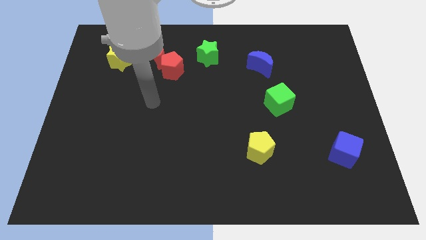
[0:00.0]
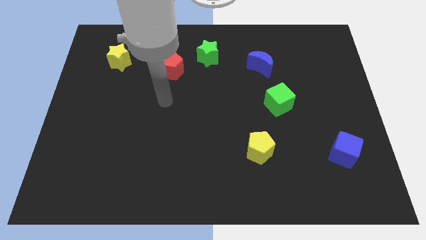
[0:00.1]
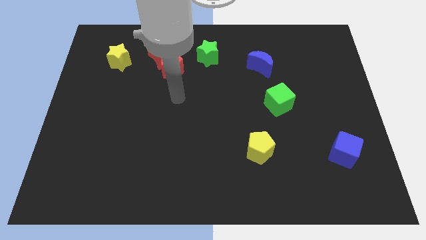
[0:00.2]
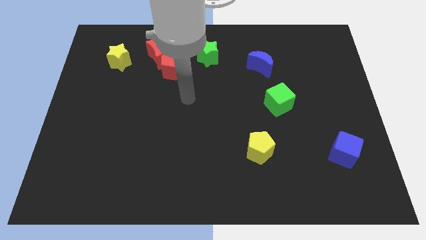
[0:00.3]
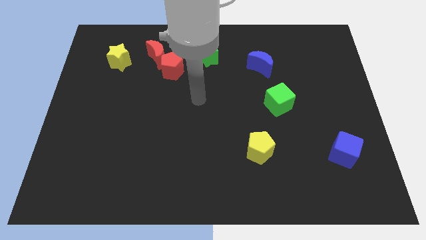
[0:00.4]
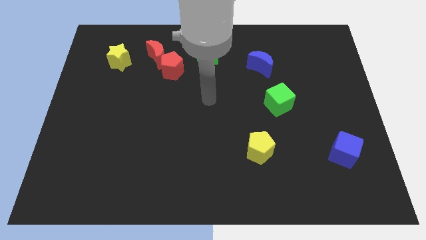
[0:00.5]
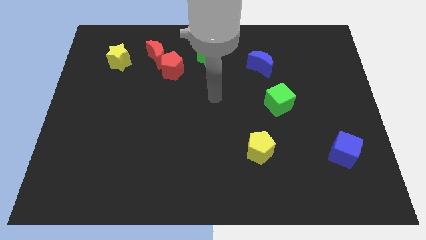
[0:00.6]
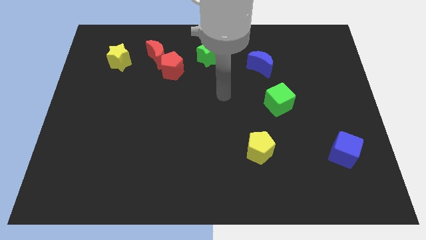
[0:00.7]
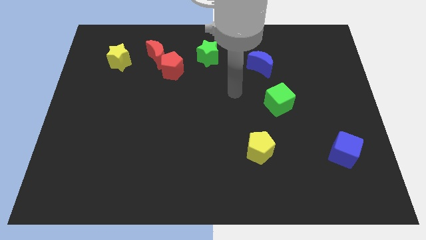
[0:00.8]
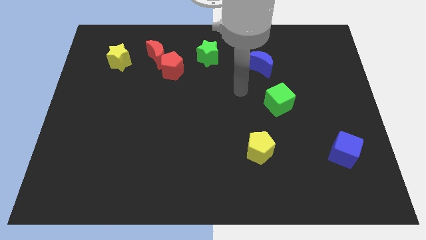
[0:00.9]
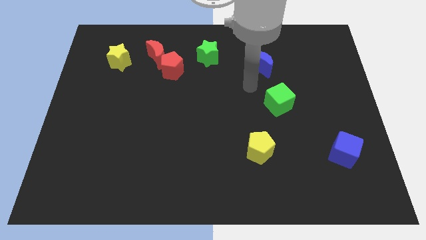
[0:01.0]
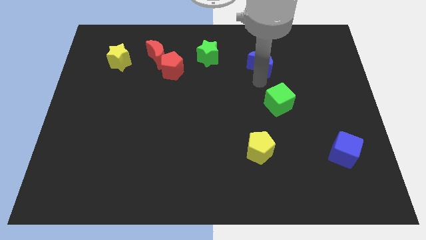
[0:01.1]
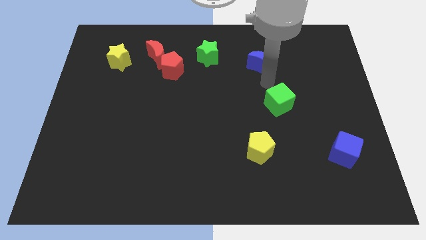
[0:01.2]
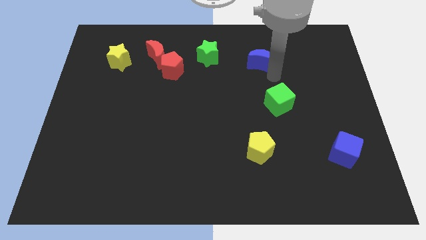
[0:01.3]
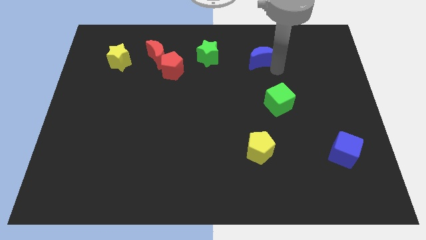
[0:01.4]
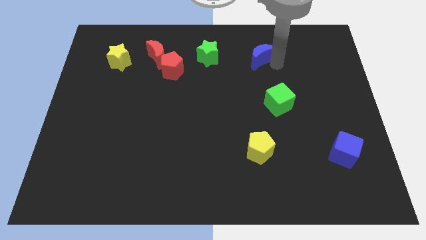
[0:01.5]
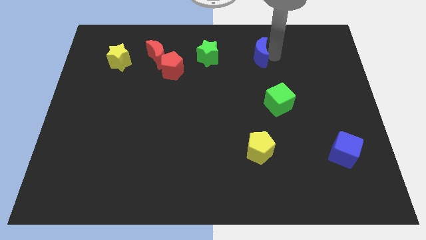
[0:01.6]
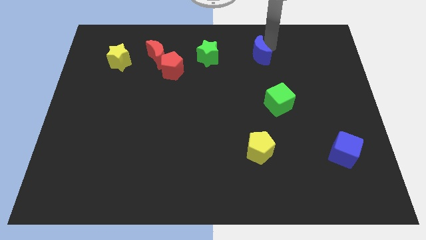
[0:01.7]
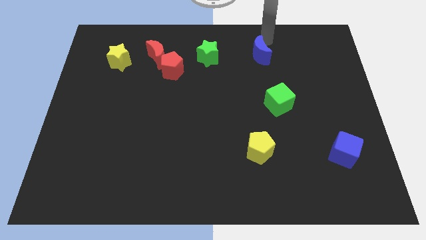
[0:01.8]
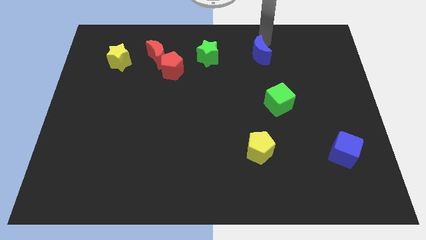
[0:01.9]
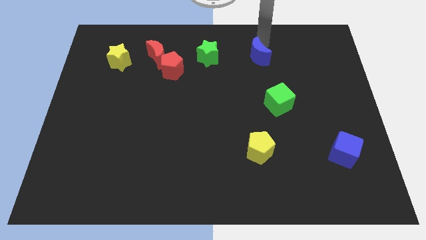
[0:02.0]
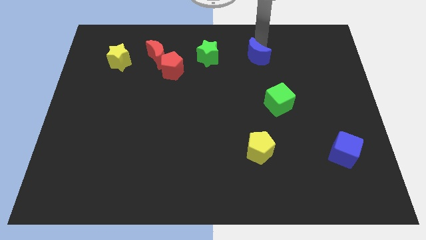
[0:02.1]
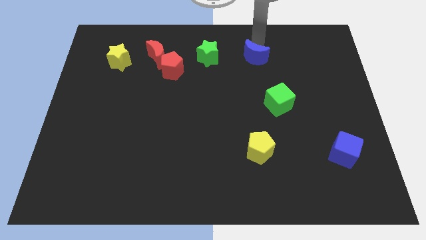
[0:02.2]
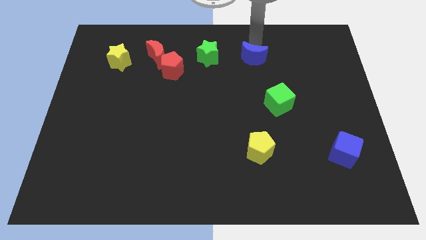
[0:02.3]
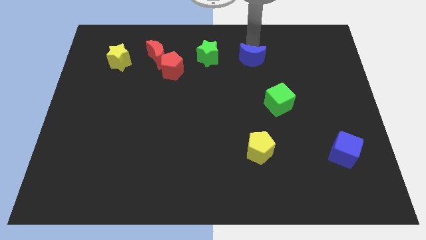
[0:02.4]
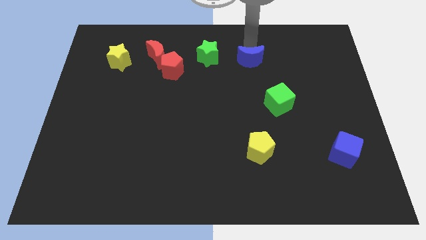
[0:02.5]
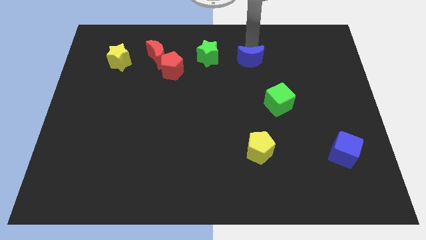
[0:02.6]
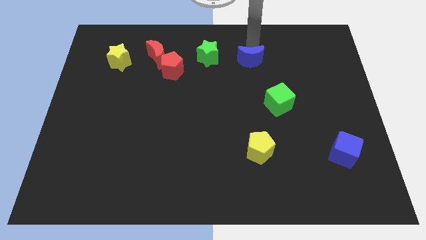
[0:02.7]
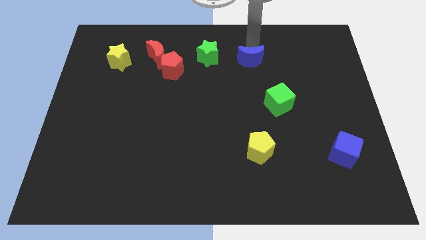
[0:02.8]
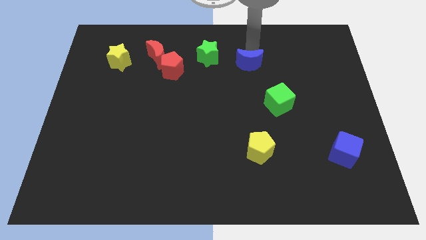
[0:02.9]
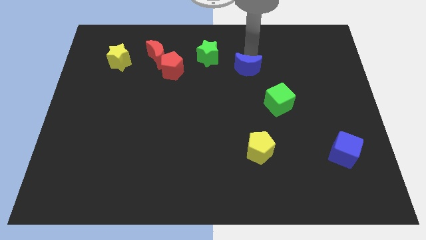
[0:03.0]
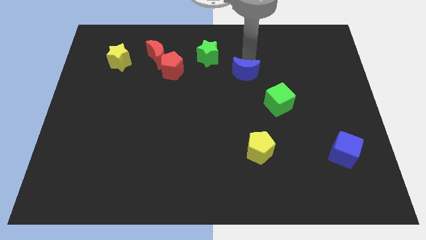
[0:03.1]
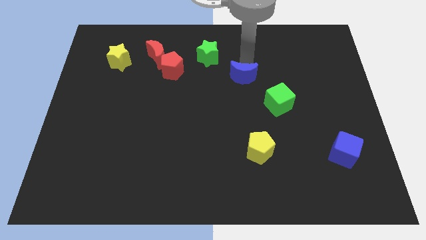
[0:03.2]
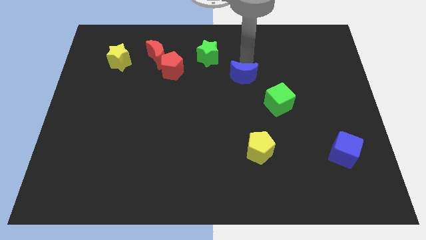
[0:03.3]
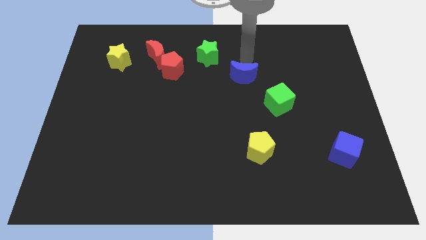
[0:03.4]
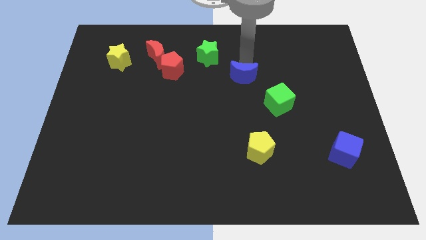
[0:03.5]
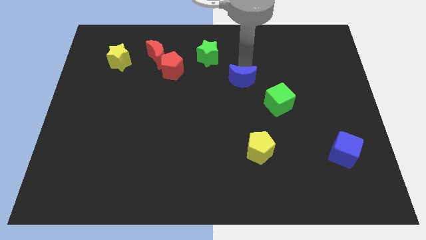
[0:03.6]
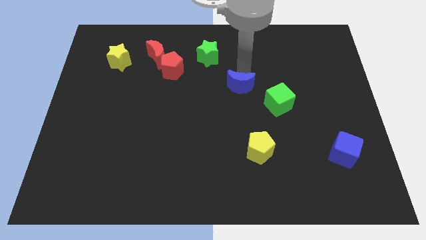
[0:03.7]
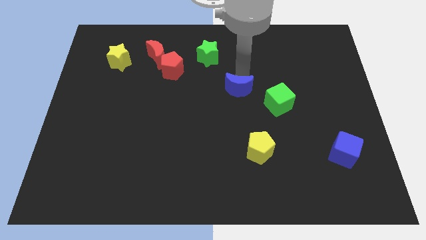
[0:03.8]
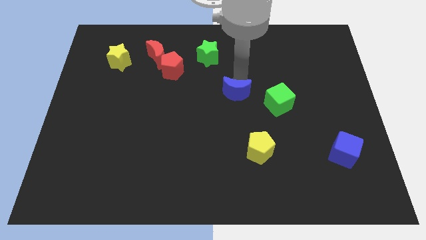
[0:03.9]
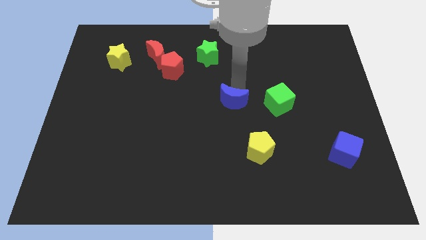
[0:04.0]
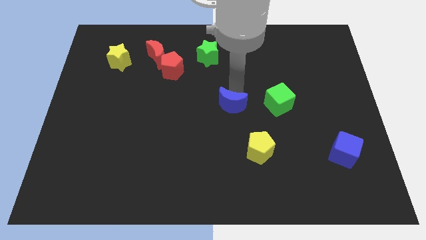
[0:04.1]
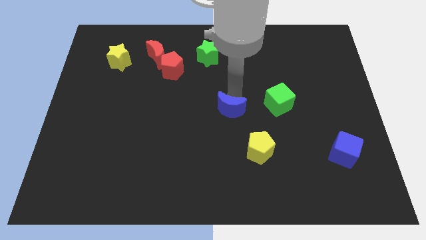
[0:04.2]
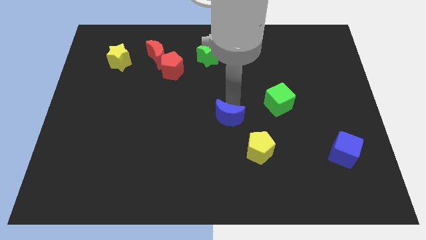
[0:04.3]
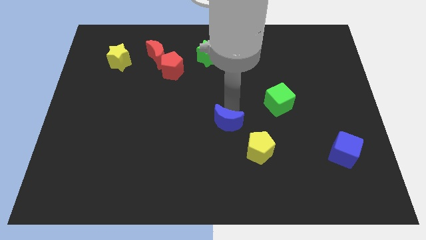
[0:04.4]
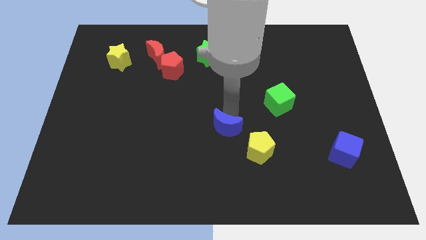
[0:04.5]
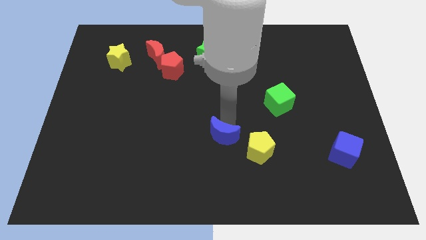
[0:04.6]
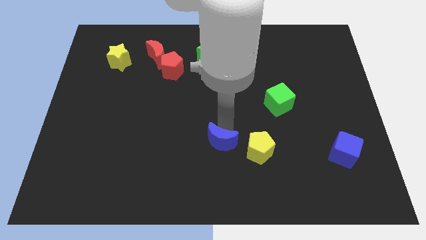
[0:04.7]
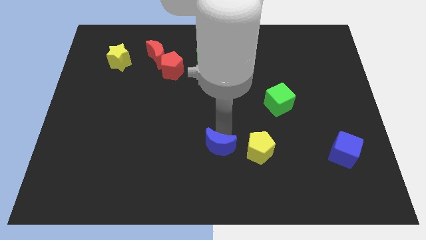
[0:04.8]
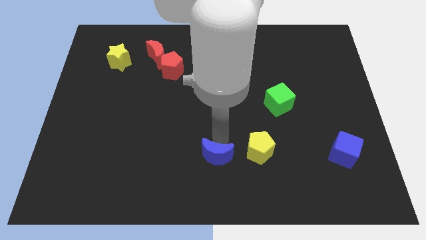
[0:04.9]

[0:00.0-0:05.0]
slide the blue moon to the bottom side

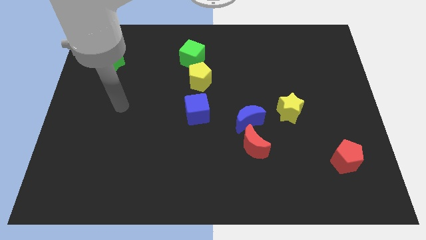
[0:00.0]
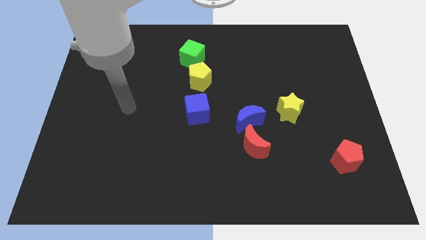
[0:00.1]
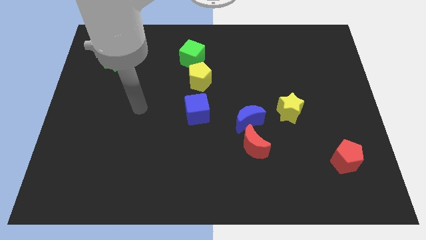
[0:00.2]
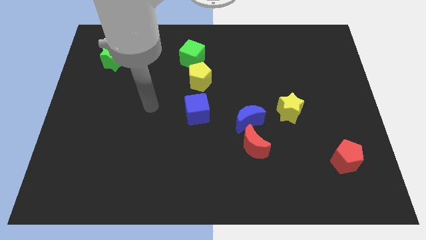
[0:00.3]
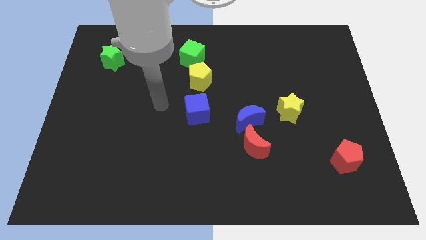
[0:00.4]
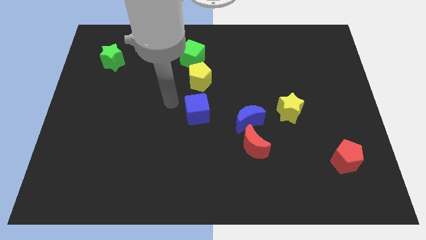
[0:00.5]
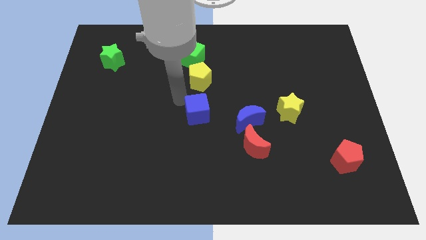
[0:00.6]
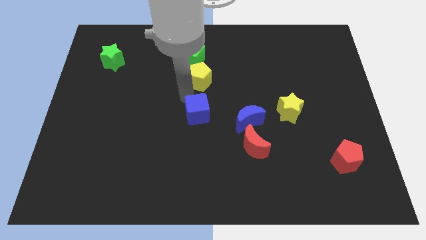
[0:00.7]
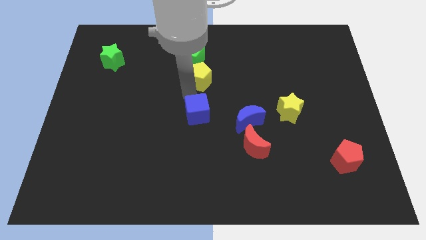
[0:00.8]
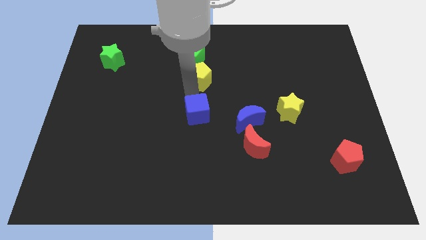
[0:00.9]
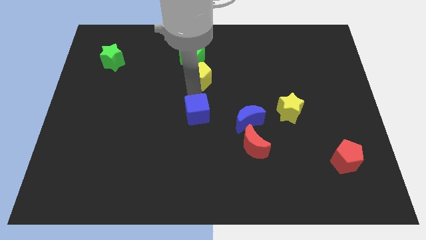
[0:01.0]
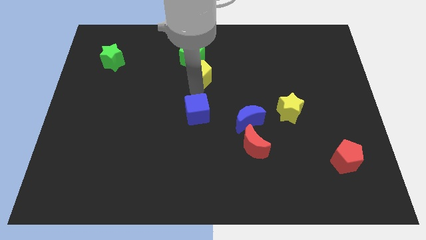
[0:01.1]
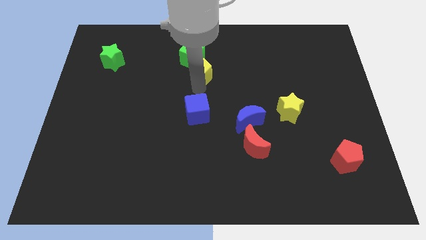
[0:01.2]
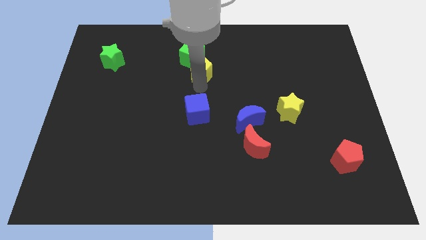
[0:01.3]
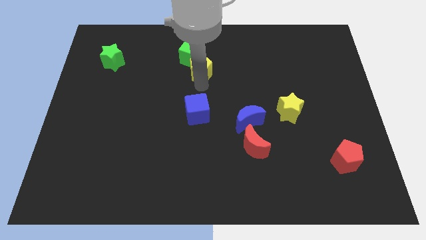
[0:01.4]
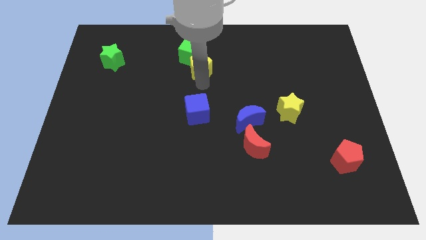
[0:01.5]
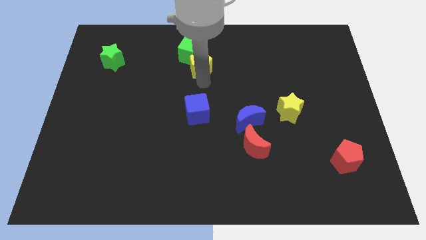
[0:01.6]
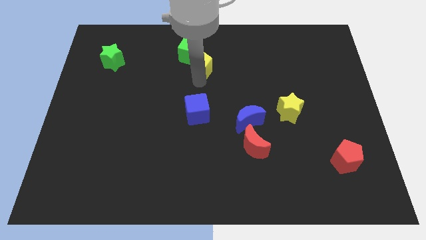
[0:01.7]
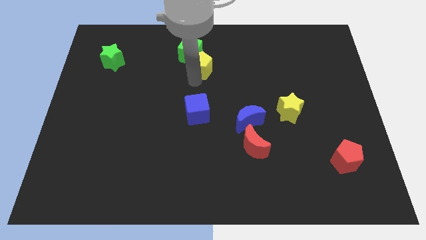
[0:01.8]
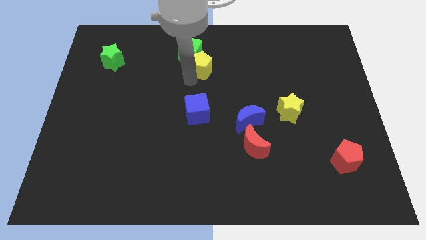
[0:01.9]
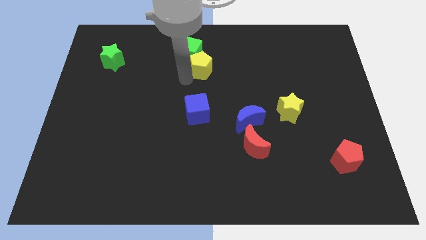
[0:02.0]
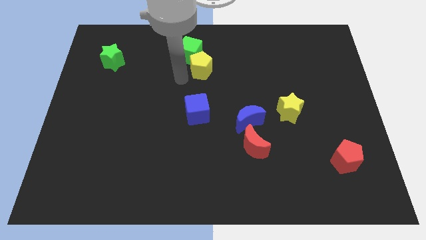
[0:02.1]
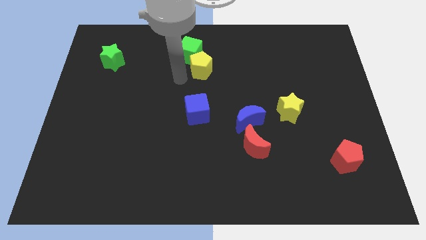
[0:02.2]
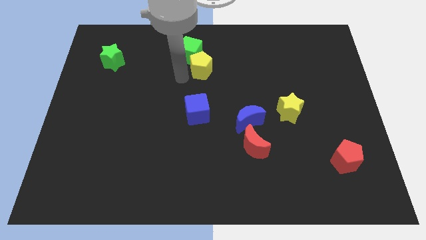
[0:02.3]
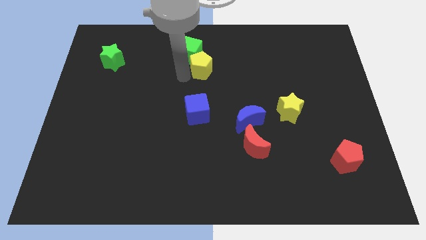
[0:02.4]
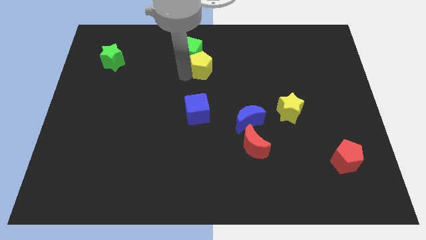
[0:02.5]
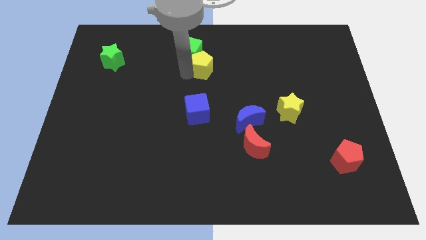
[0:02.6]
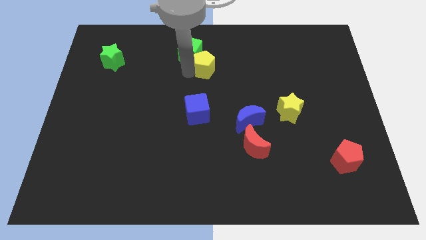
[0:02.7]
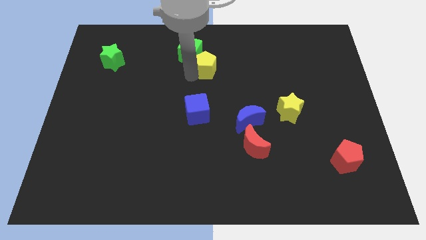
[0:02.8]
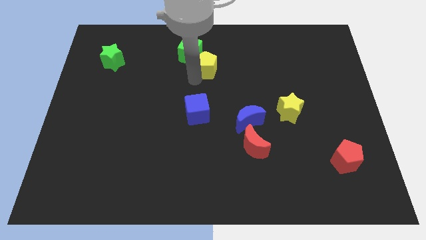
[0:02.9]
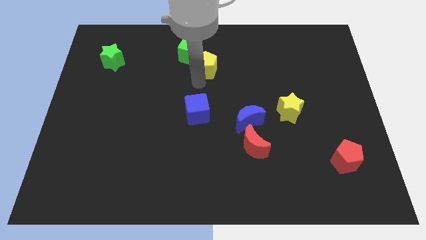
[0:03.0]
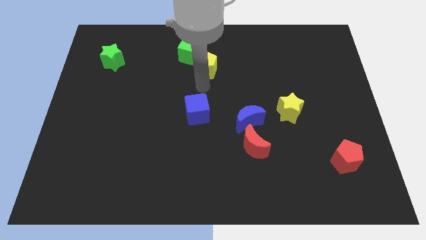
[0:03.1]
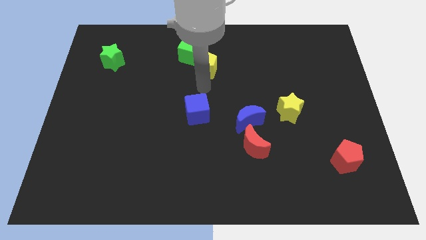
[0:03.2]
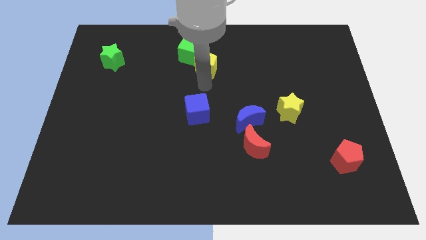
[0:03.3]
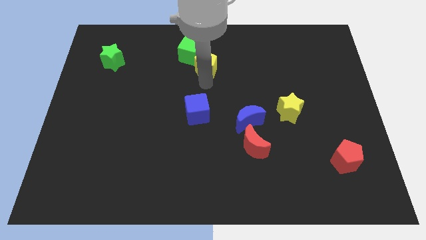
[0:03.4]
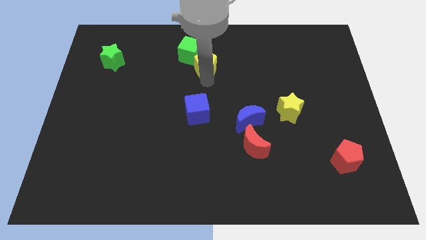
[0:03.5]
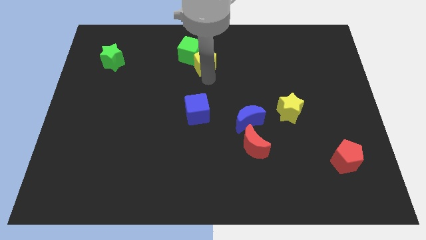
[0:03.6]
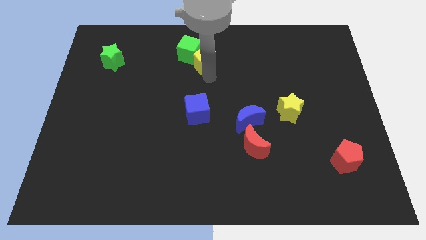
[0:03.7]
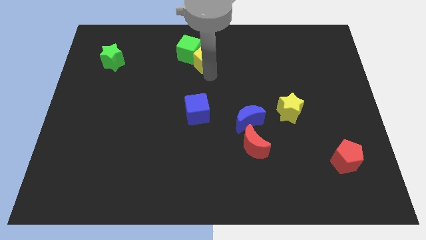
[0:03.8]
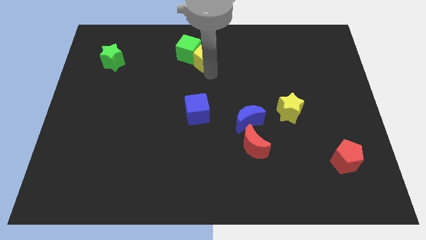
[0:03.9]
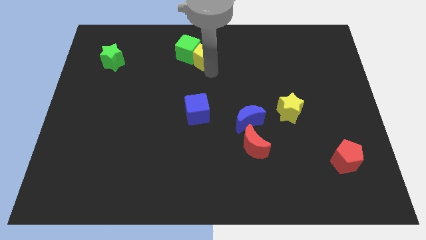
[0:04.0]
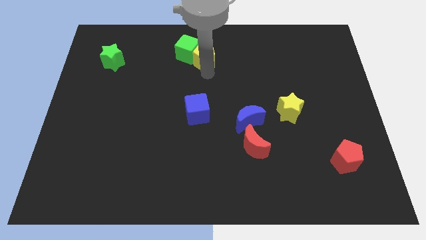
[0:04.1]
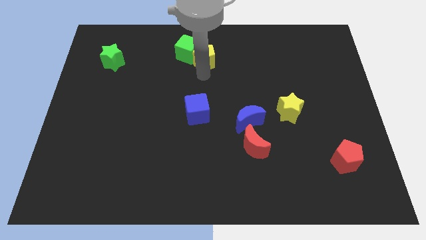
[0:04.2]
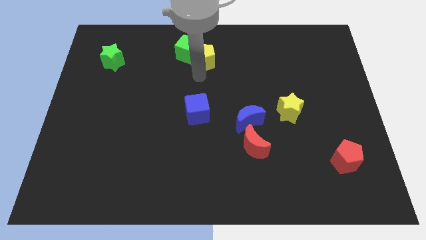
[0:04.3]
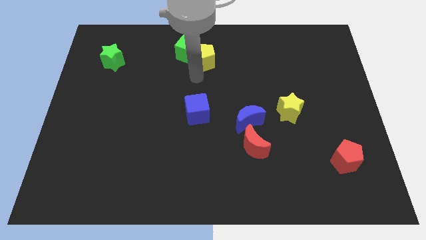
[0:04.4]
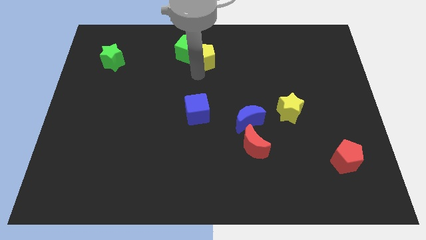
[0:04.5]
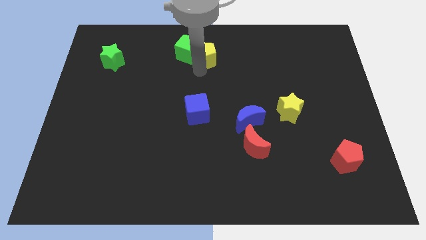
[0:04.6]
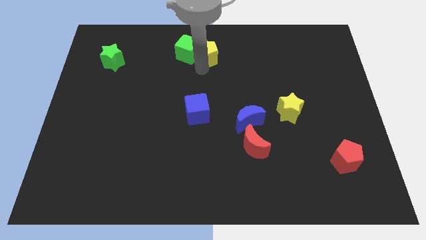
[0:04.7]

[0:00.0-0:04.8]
slide the yellow pentagon to the top side
